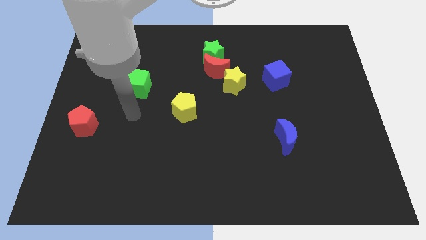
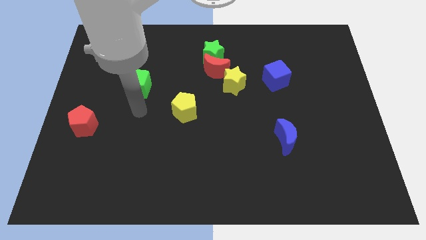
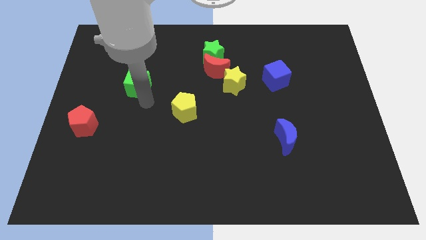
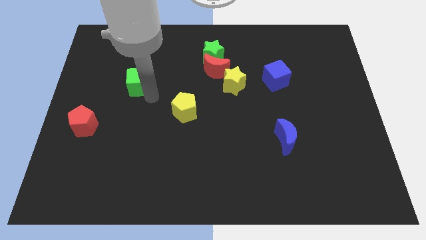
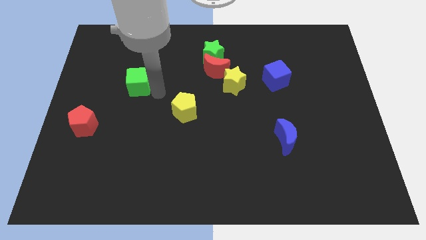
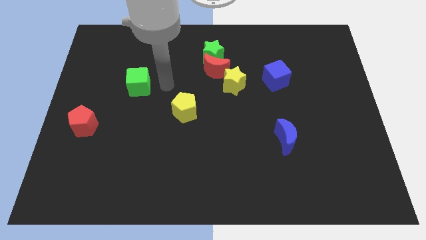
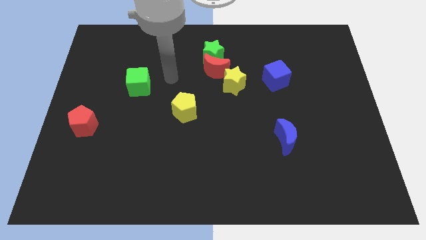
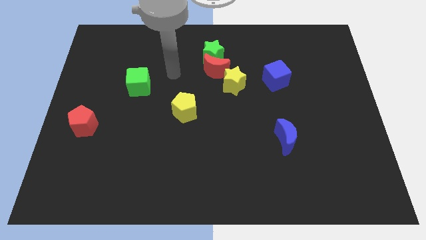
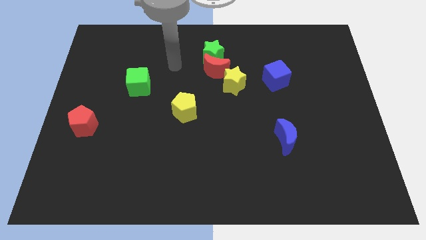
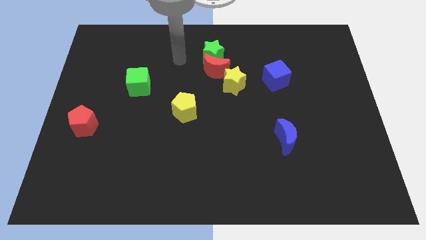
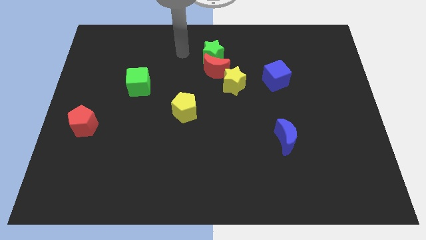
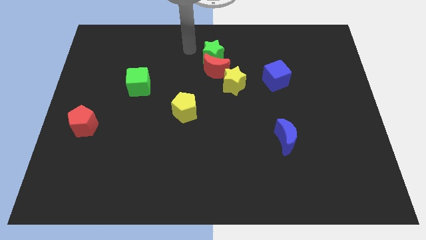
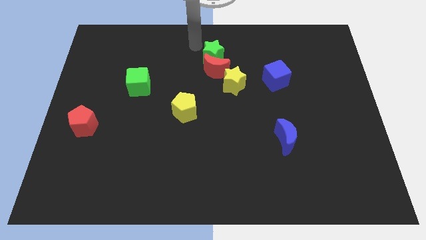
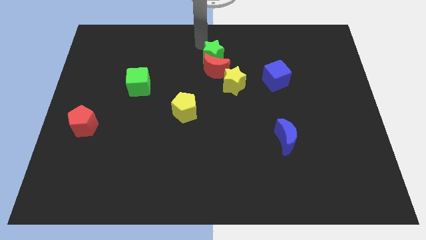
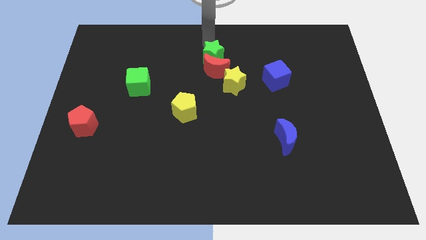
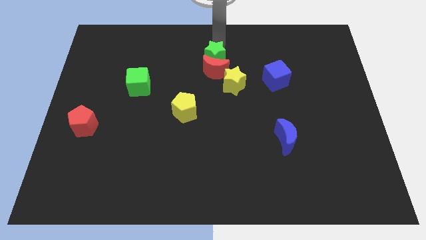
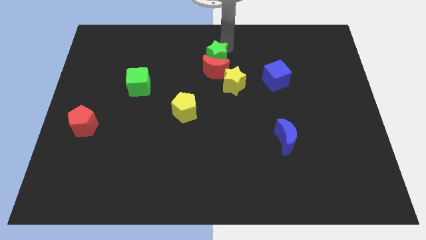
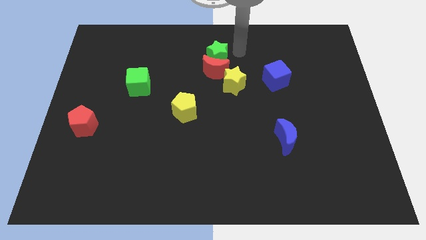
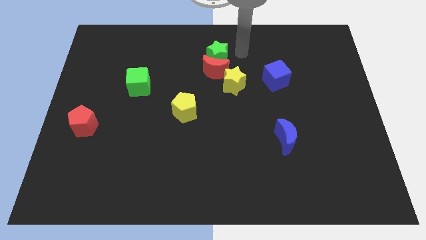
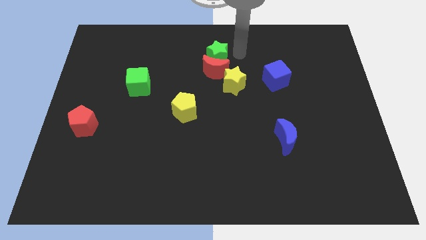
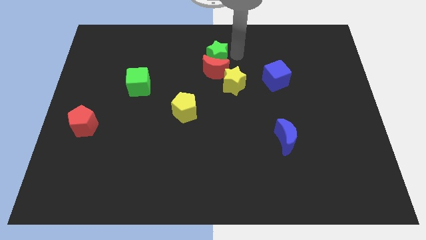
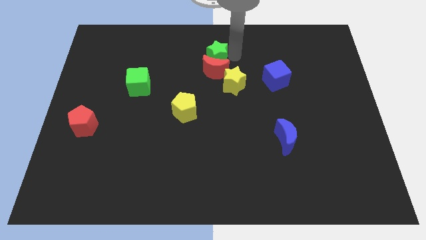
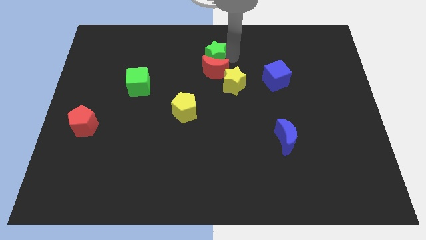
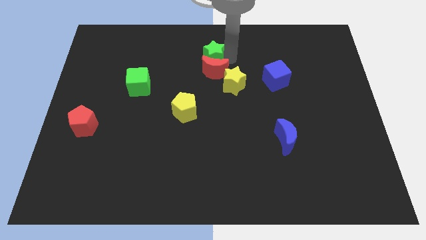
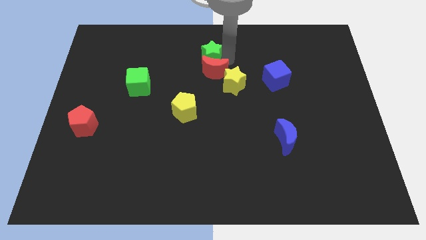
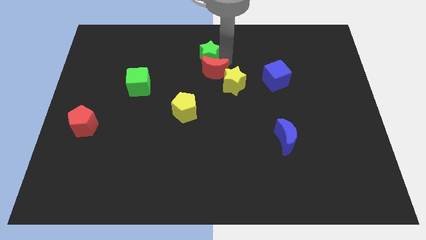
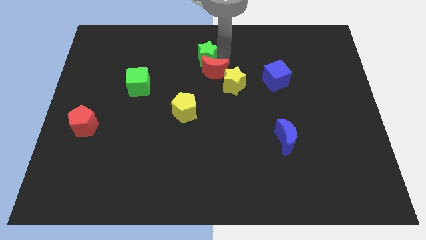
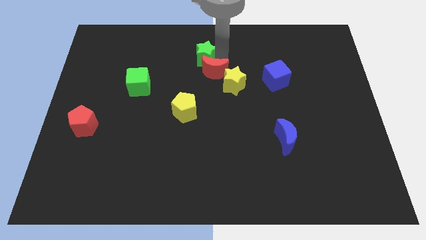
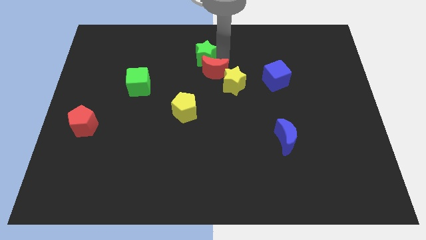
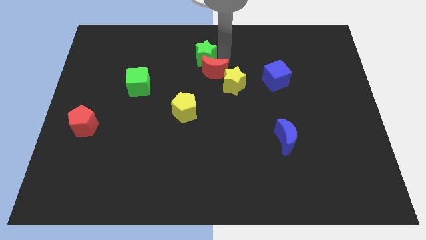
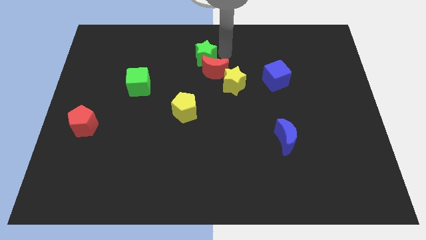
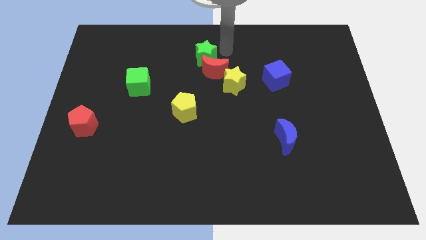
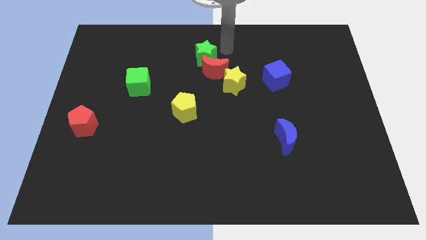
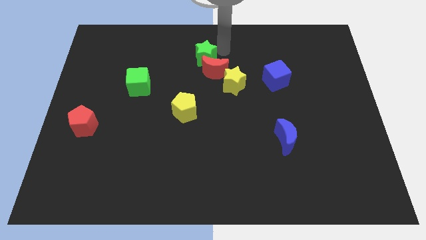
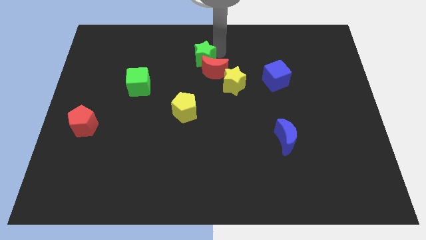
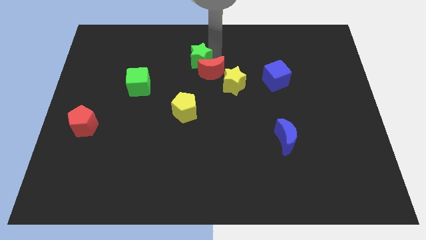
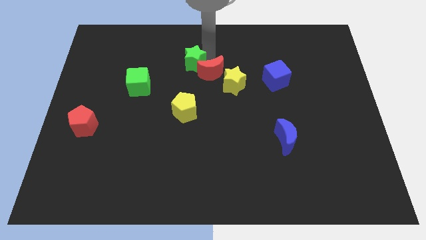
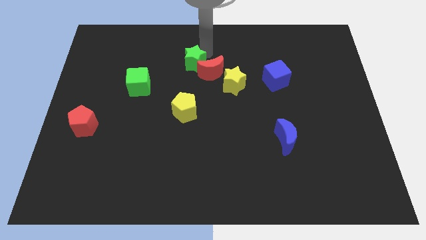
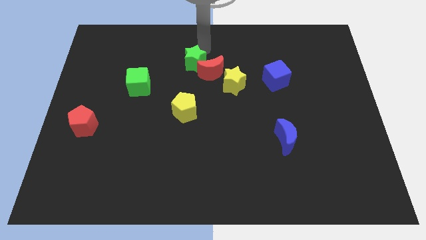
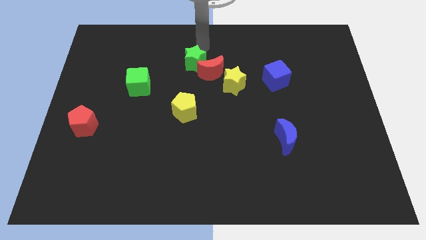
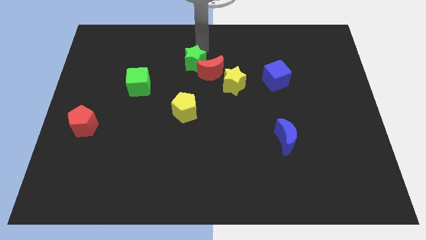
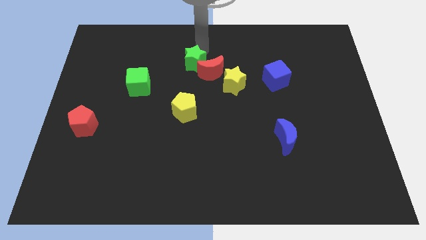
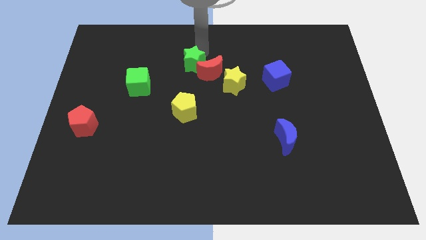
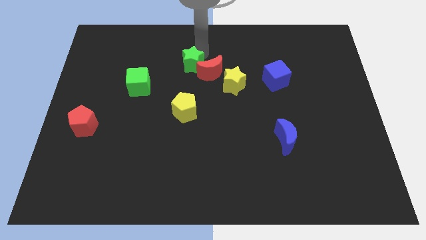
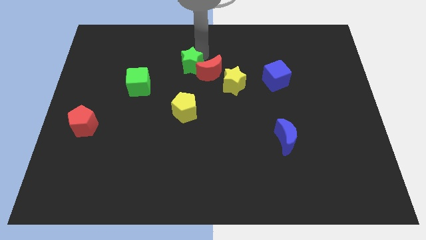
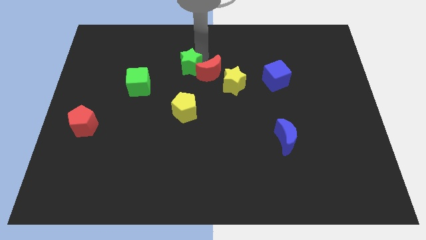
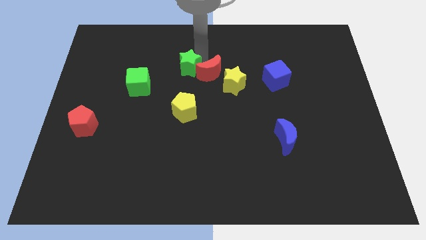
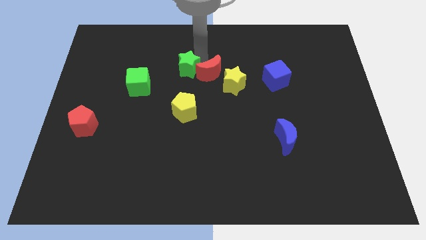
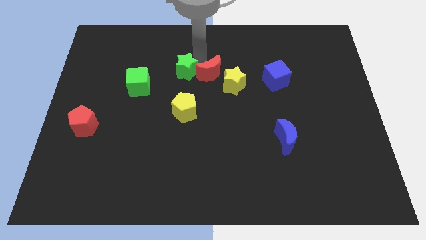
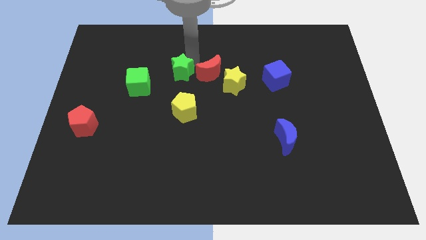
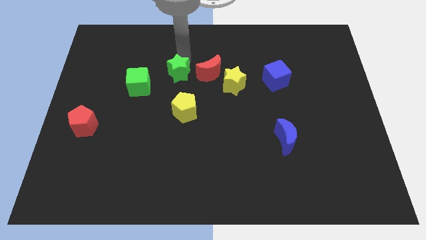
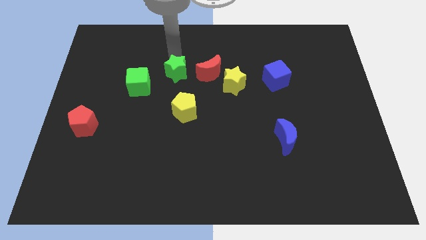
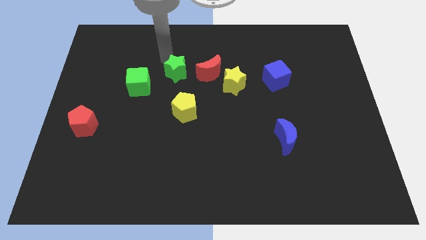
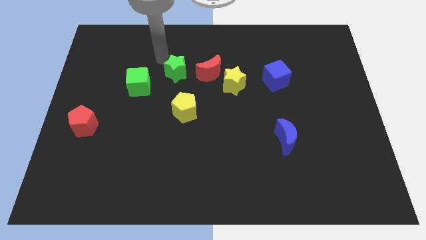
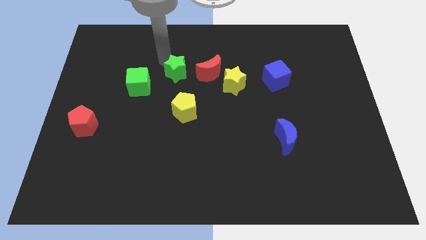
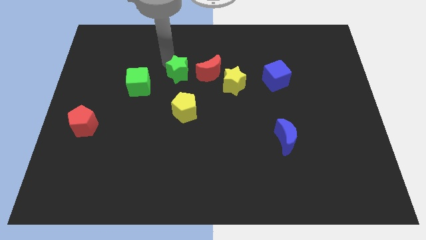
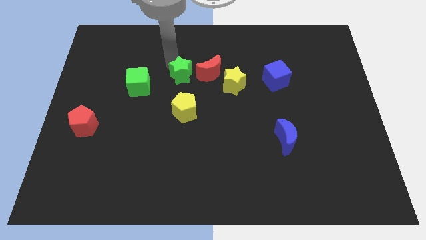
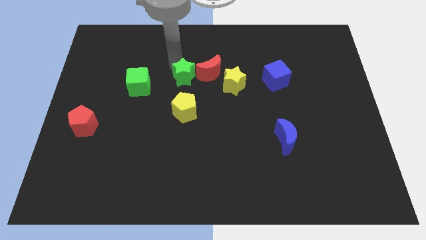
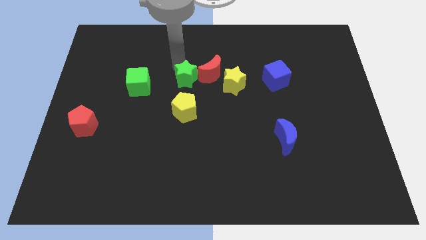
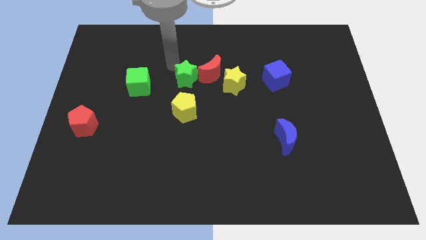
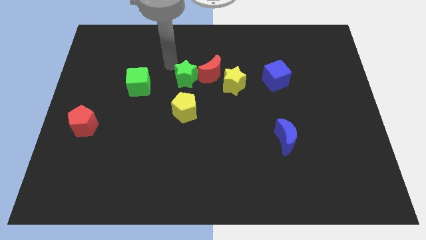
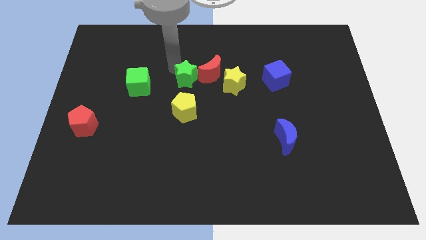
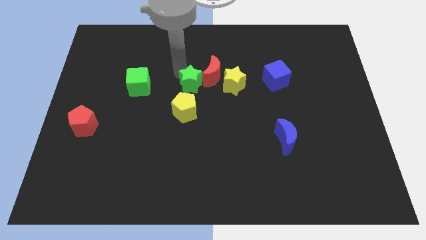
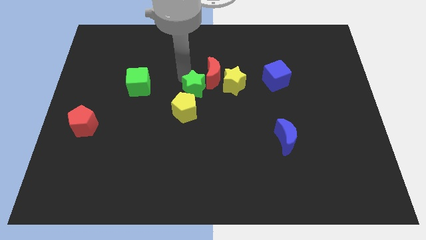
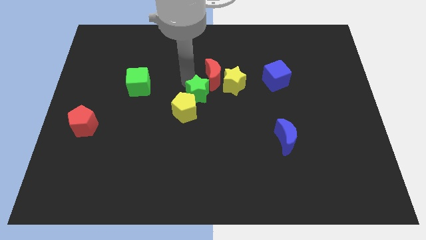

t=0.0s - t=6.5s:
move the green star to the bottom left of the yellow star

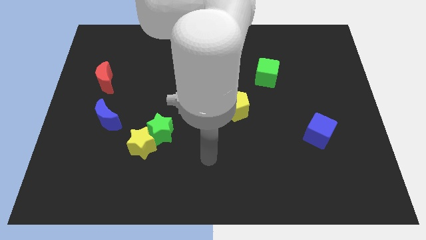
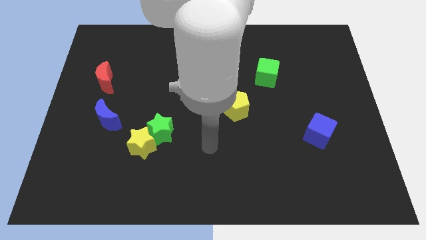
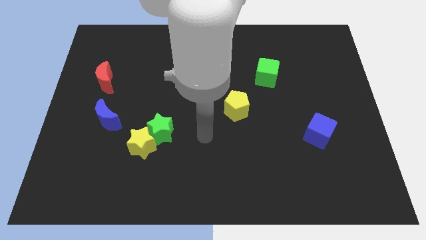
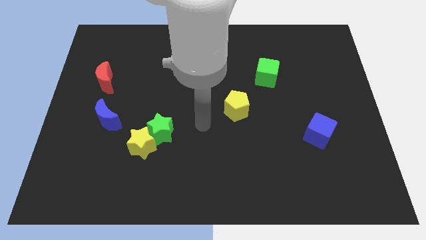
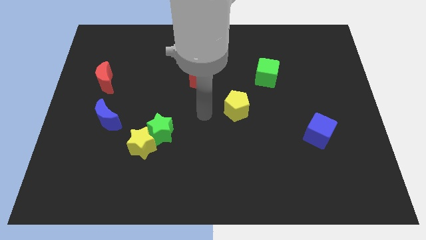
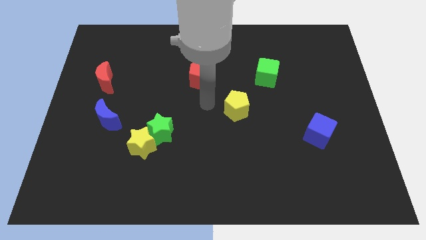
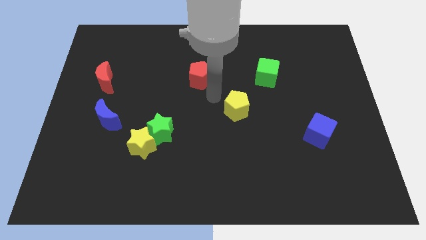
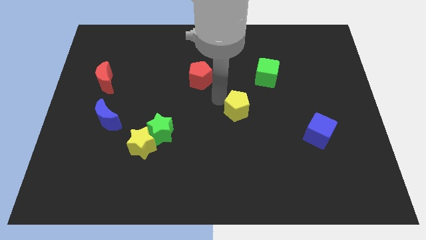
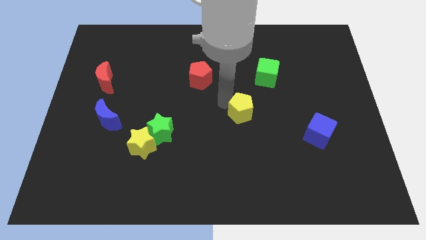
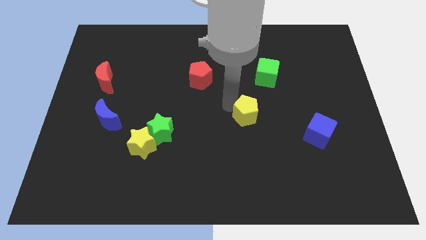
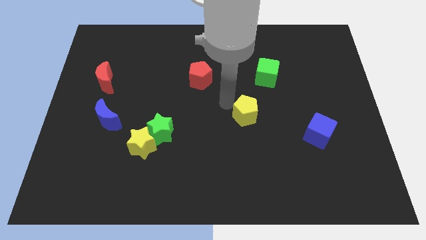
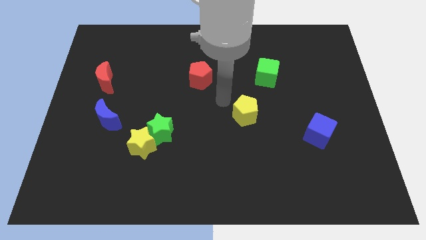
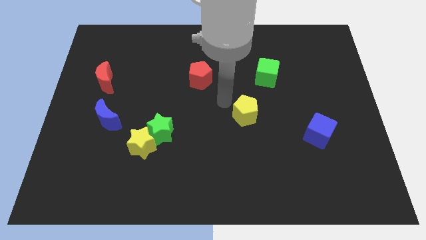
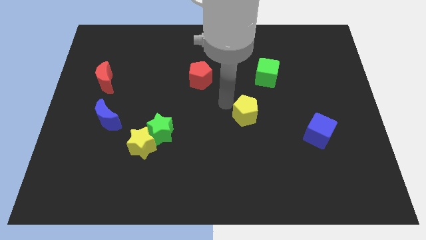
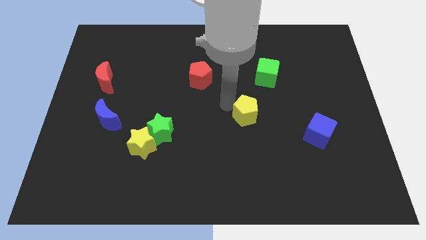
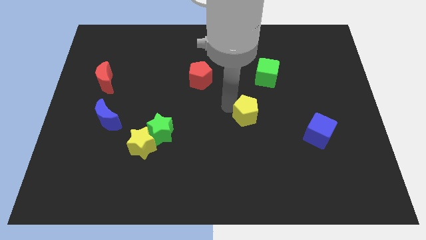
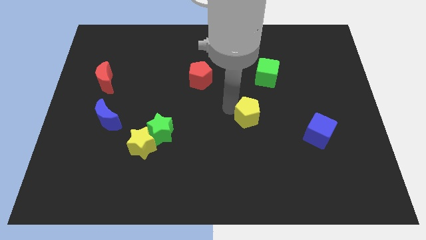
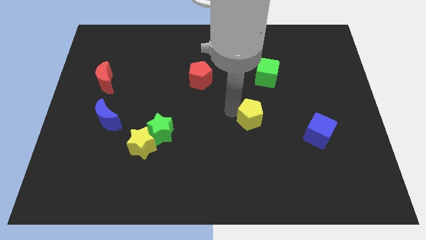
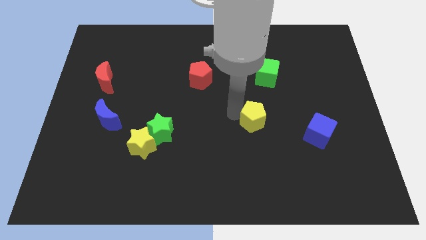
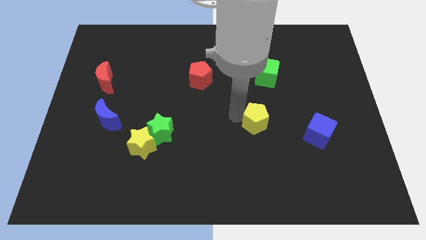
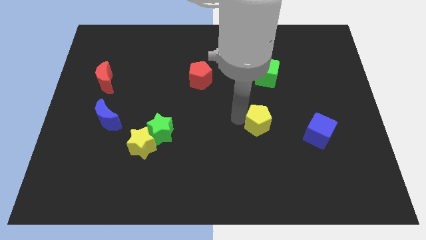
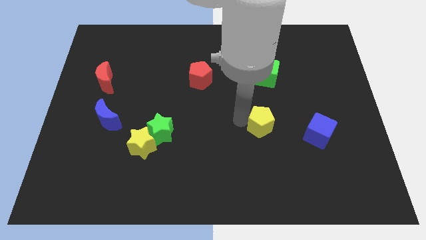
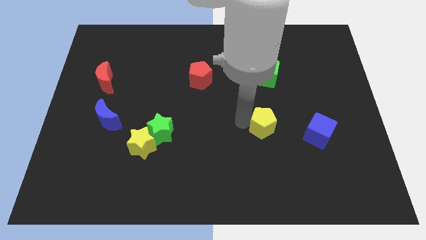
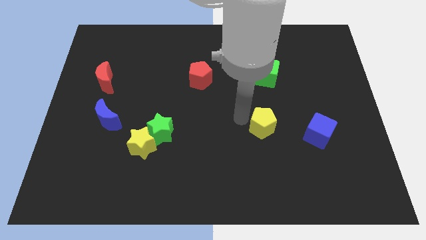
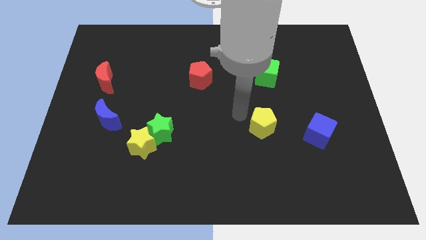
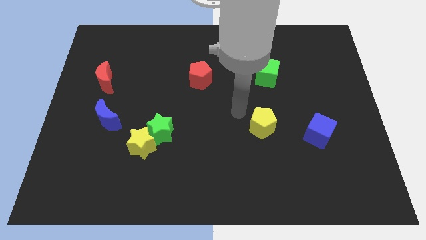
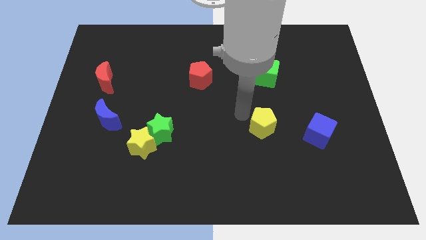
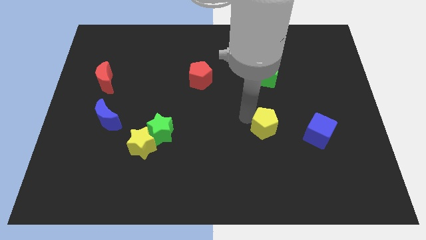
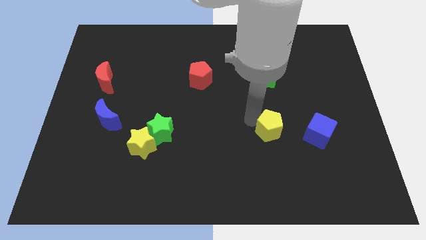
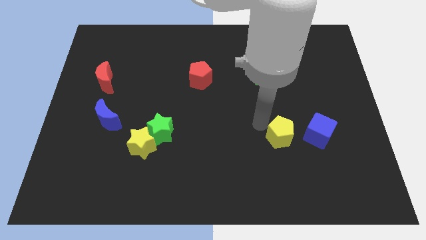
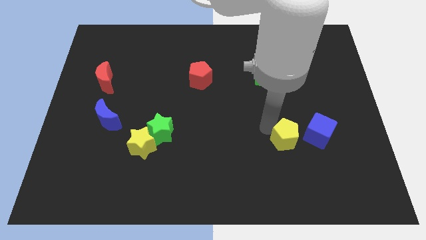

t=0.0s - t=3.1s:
put the yellow pentagon diagonally down and to the left of the blue cube
